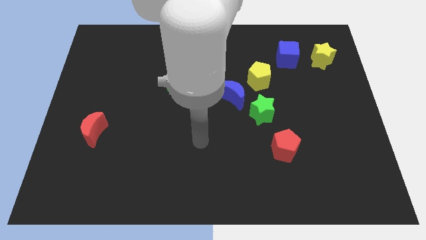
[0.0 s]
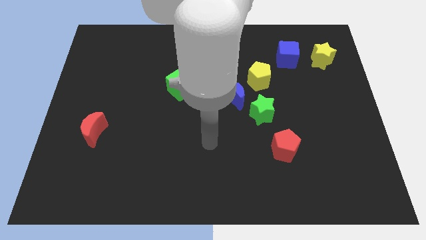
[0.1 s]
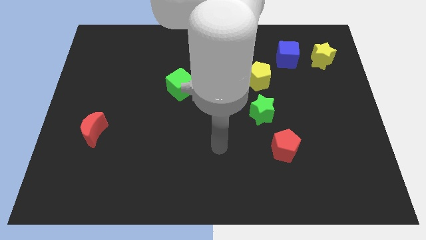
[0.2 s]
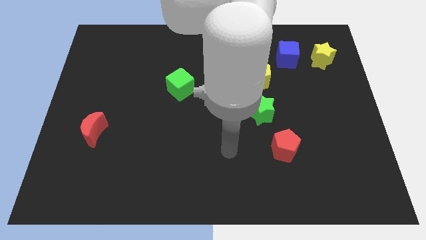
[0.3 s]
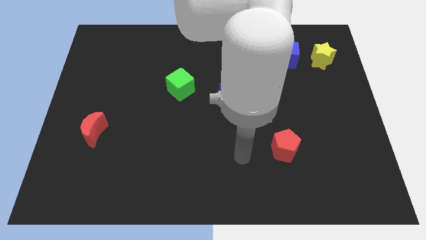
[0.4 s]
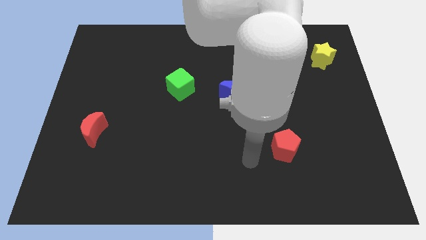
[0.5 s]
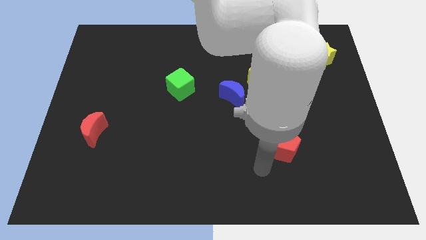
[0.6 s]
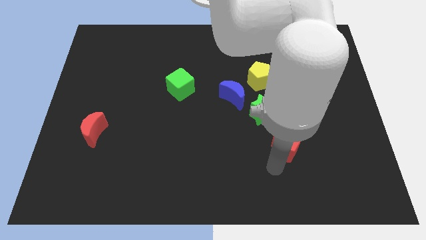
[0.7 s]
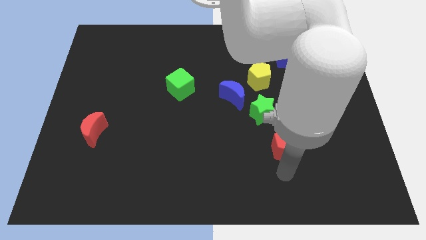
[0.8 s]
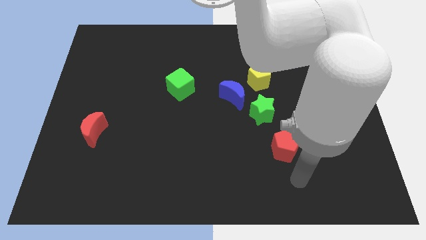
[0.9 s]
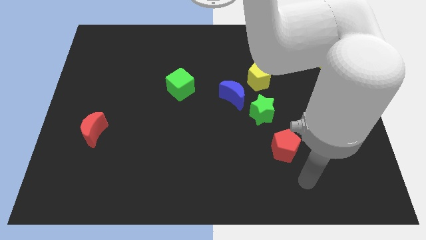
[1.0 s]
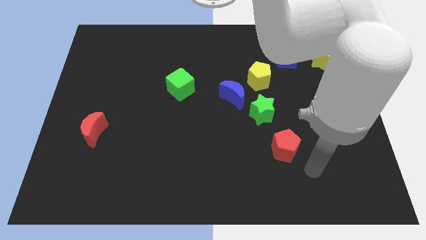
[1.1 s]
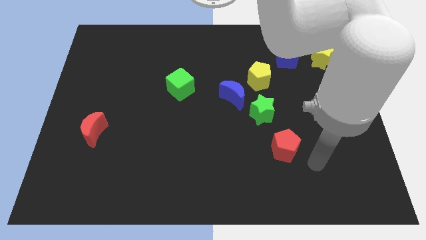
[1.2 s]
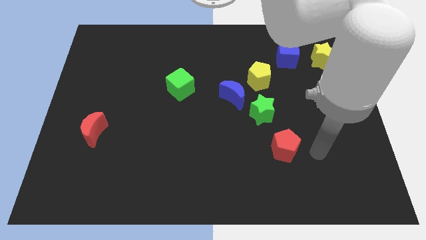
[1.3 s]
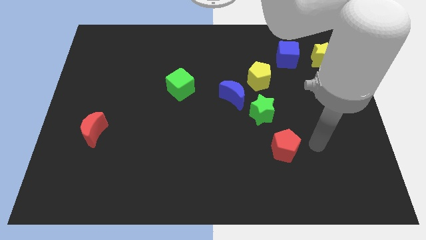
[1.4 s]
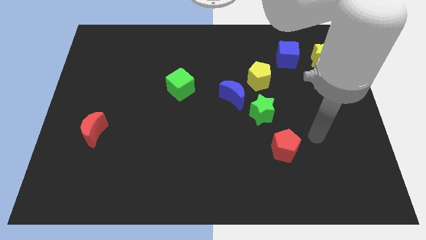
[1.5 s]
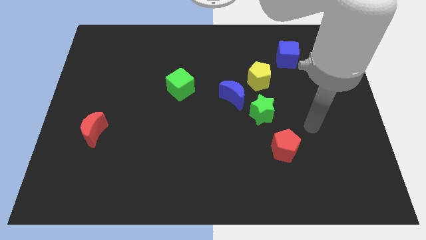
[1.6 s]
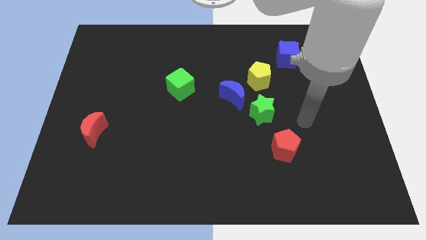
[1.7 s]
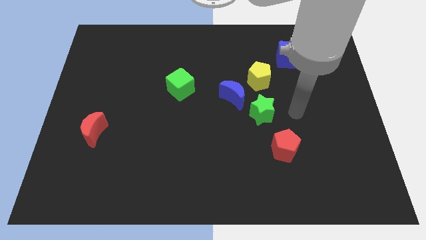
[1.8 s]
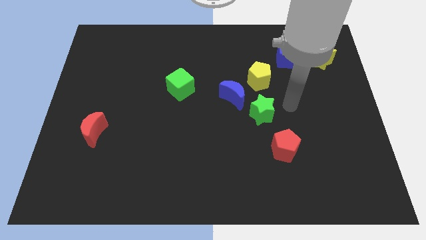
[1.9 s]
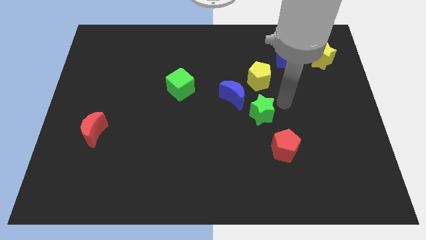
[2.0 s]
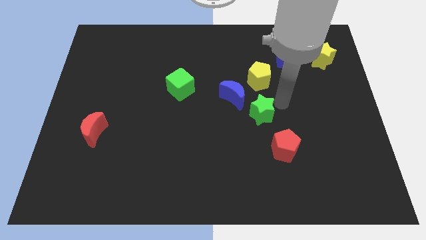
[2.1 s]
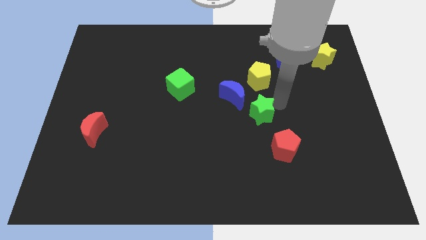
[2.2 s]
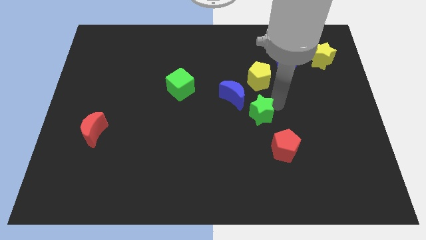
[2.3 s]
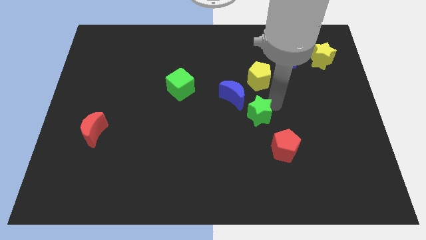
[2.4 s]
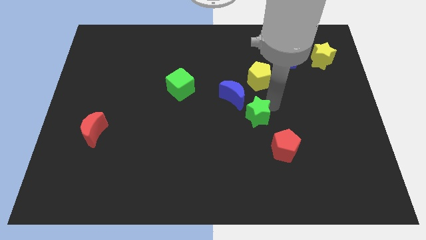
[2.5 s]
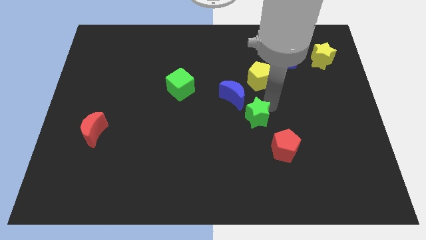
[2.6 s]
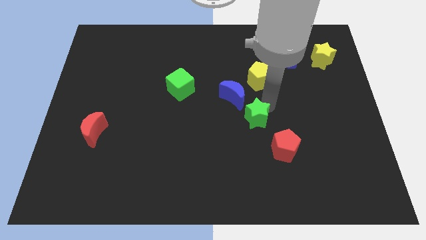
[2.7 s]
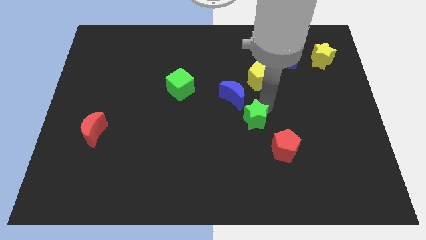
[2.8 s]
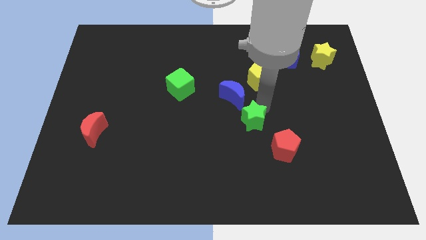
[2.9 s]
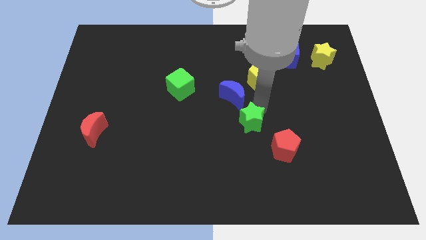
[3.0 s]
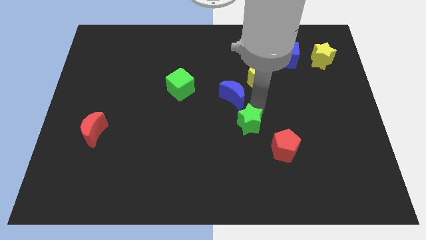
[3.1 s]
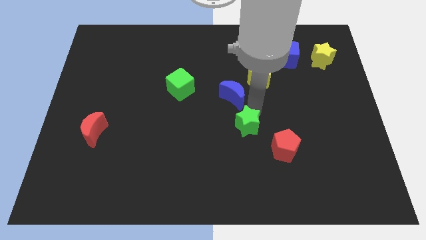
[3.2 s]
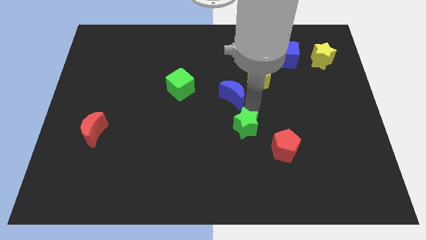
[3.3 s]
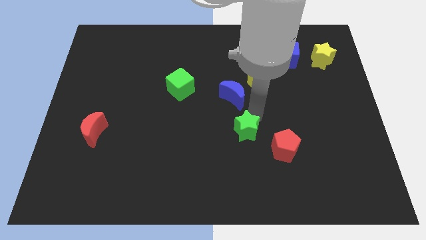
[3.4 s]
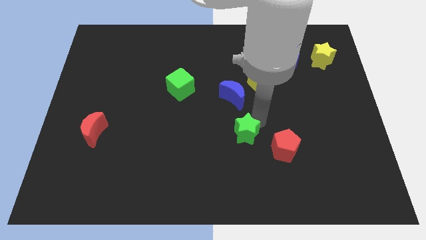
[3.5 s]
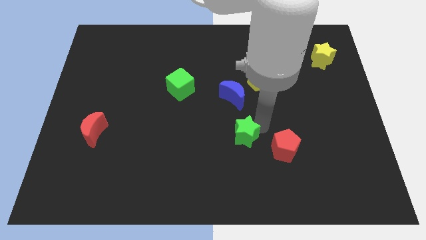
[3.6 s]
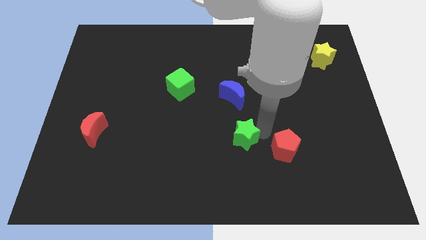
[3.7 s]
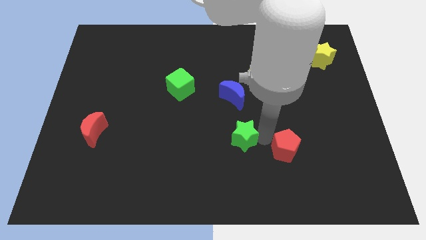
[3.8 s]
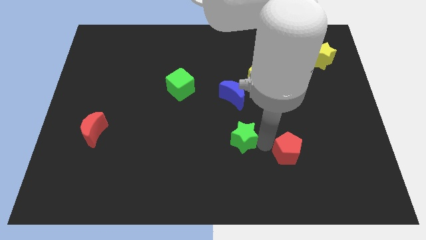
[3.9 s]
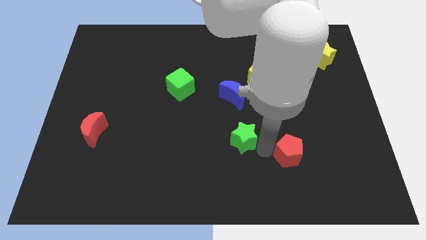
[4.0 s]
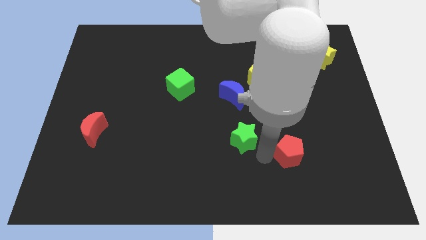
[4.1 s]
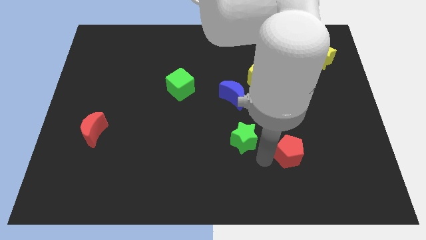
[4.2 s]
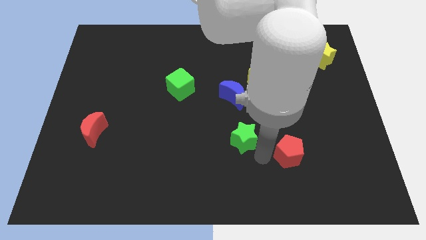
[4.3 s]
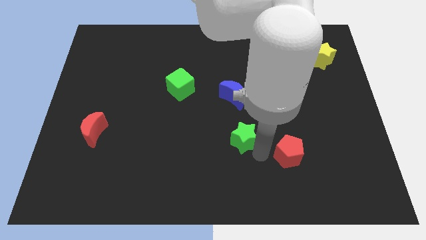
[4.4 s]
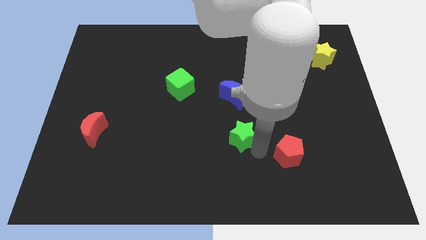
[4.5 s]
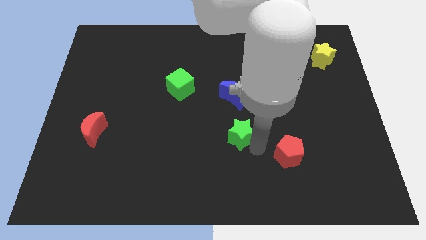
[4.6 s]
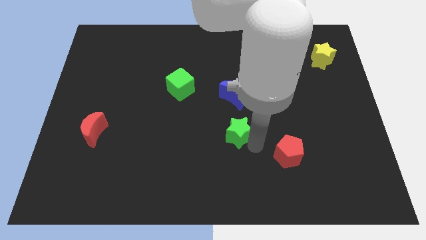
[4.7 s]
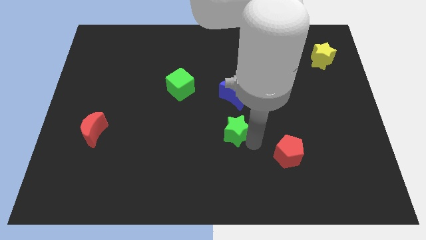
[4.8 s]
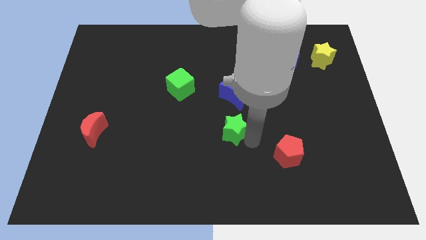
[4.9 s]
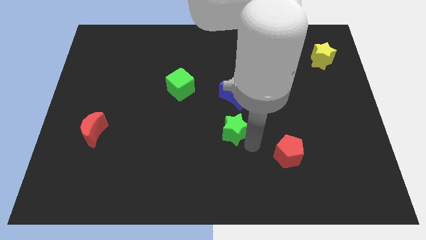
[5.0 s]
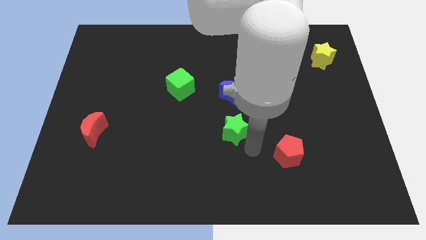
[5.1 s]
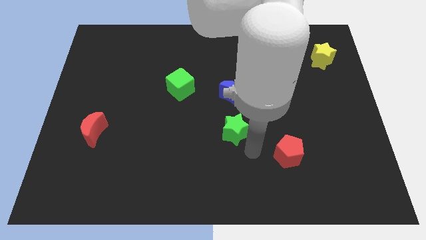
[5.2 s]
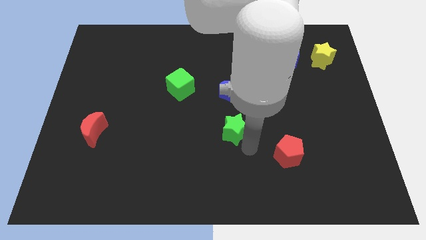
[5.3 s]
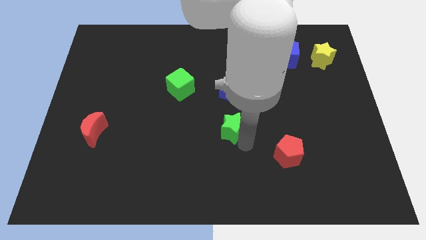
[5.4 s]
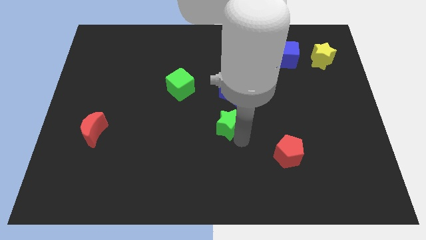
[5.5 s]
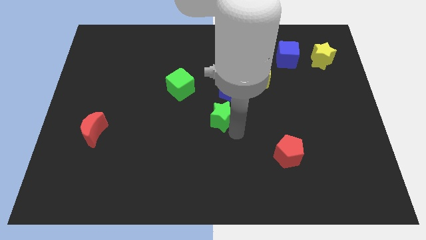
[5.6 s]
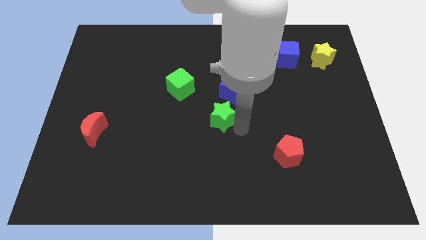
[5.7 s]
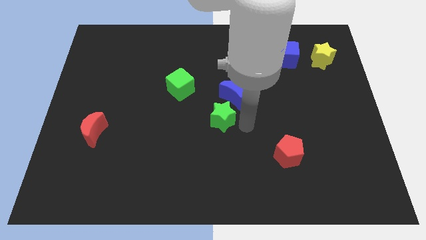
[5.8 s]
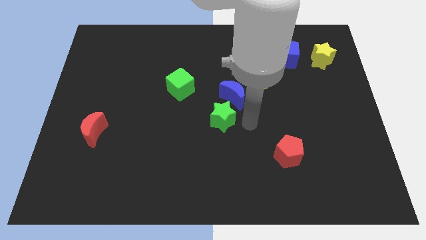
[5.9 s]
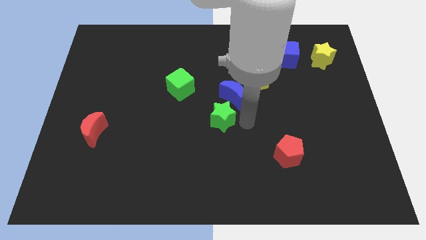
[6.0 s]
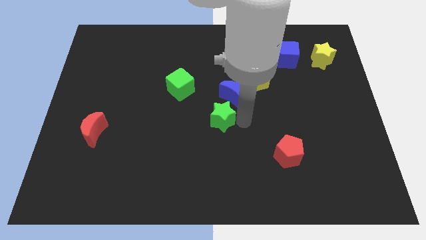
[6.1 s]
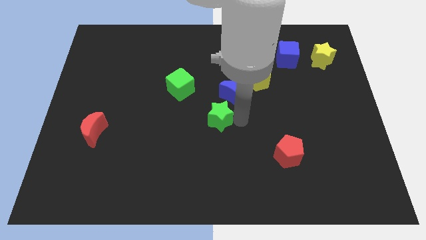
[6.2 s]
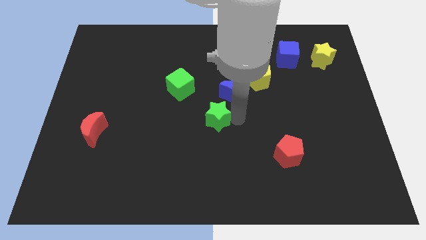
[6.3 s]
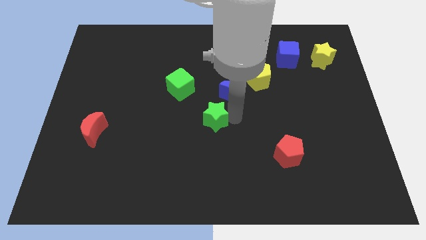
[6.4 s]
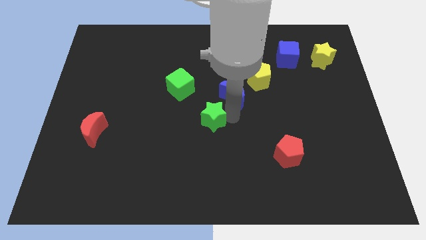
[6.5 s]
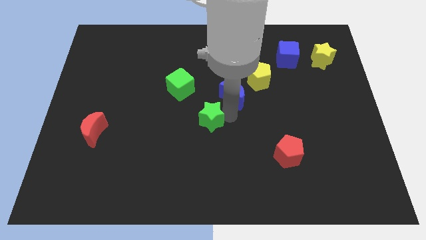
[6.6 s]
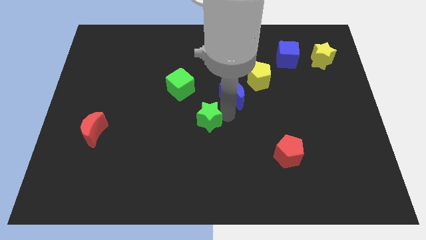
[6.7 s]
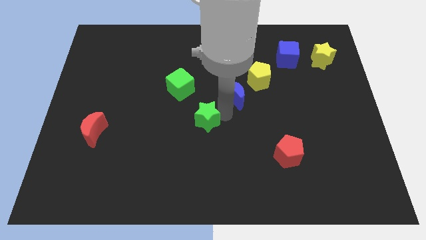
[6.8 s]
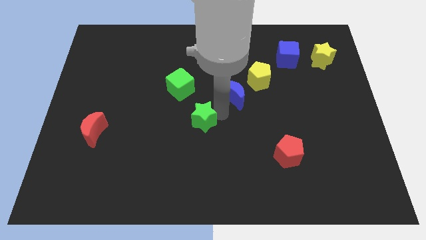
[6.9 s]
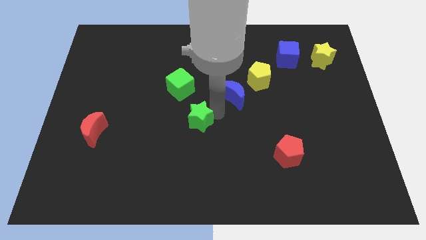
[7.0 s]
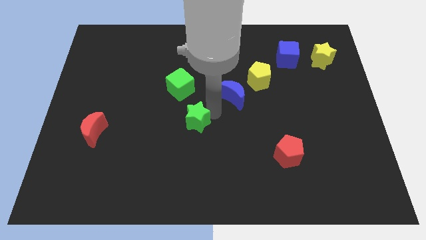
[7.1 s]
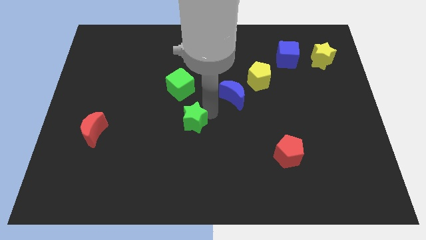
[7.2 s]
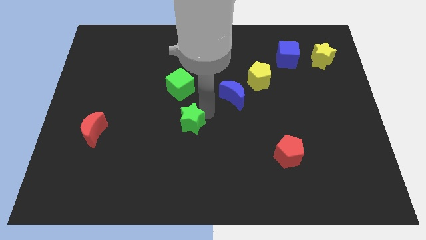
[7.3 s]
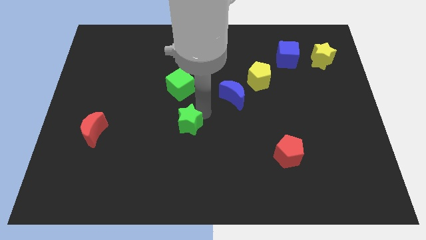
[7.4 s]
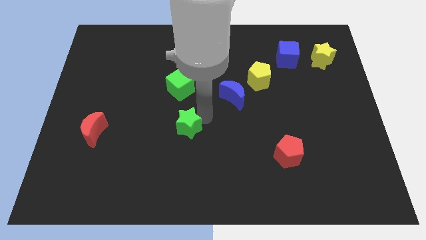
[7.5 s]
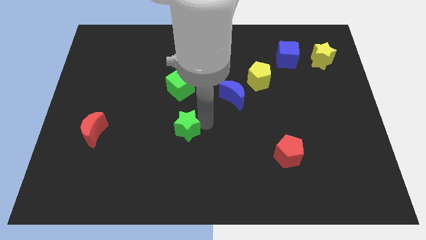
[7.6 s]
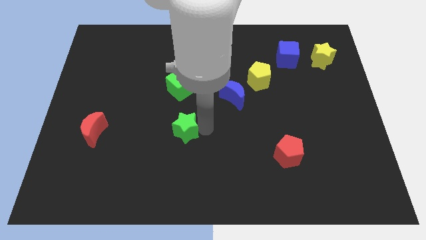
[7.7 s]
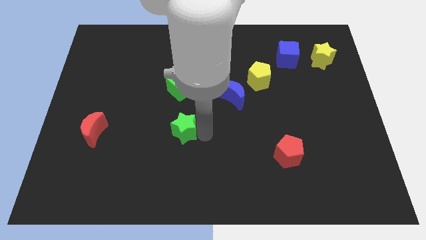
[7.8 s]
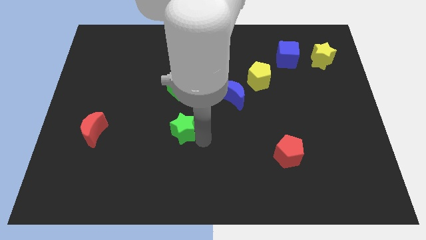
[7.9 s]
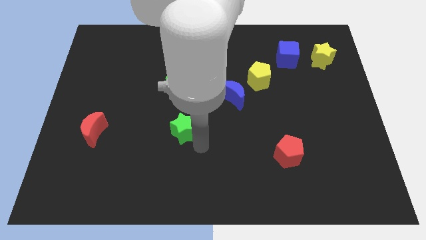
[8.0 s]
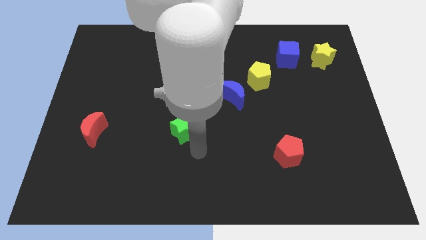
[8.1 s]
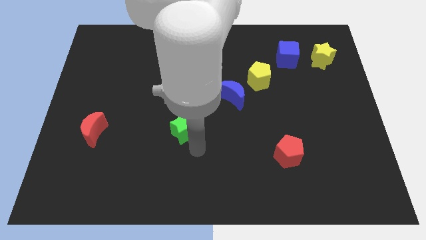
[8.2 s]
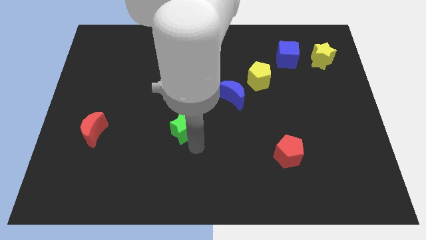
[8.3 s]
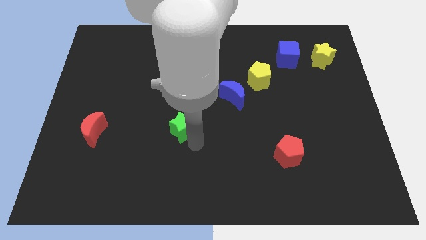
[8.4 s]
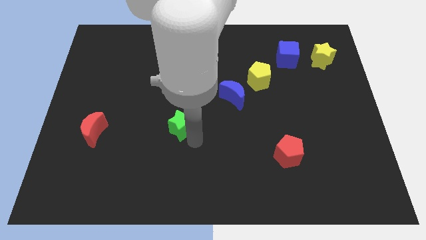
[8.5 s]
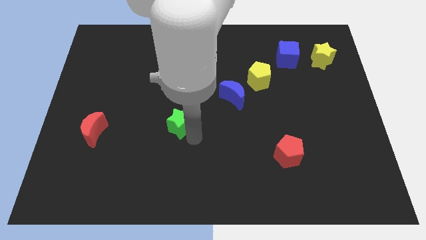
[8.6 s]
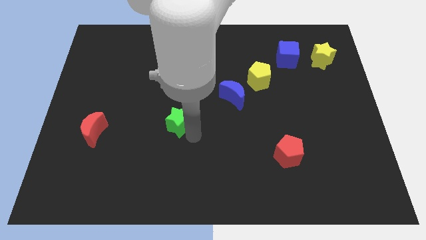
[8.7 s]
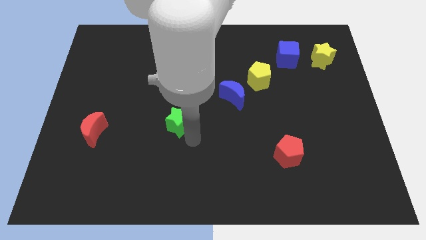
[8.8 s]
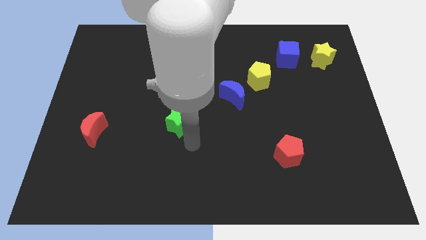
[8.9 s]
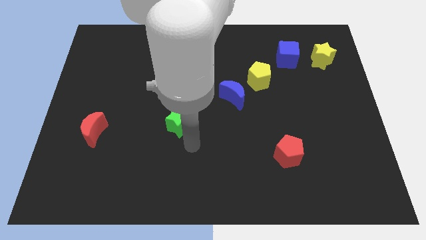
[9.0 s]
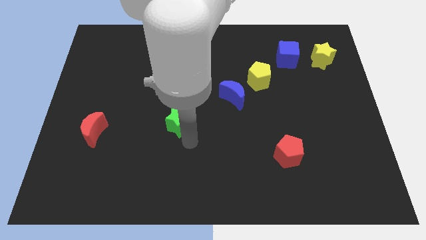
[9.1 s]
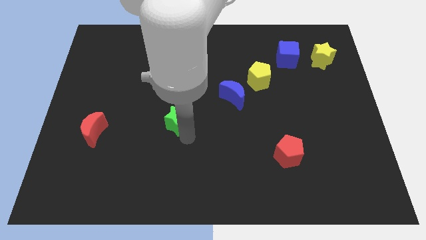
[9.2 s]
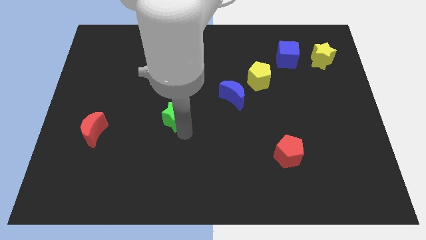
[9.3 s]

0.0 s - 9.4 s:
push the green star to the left
